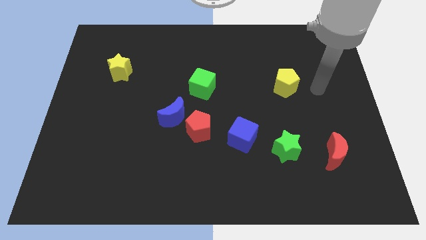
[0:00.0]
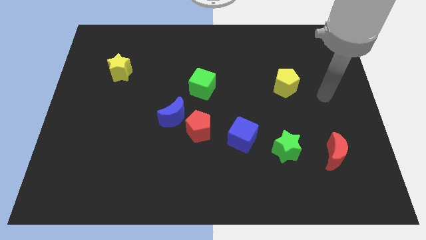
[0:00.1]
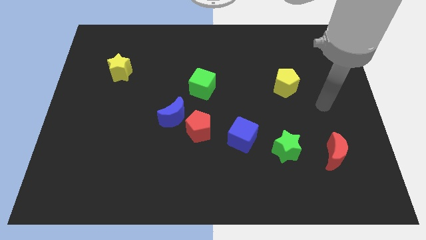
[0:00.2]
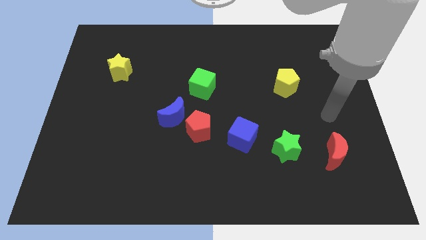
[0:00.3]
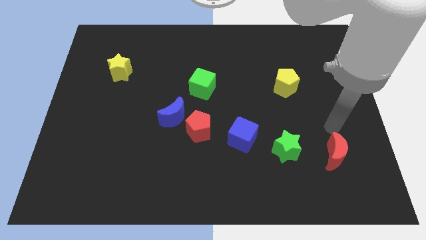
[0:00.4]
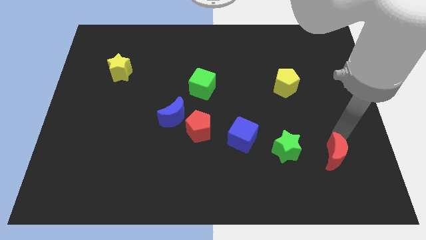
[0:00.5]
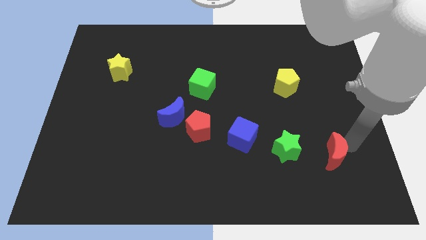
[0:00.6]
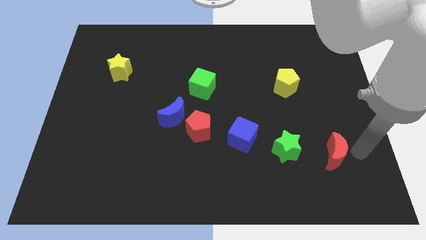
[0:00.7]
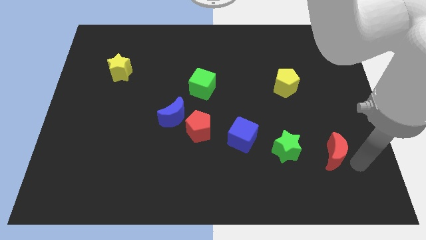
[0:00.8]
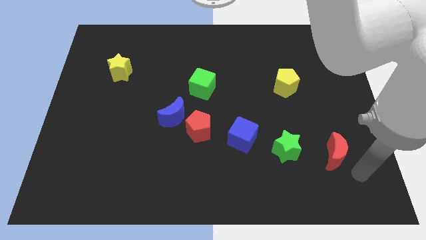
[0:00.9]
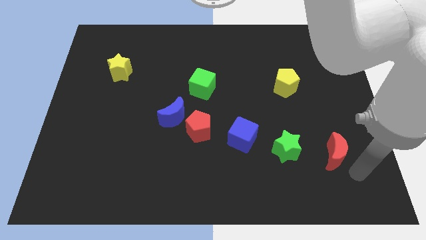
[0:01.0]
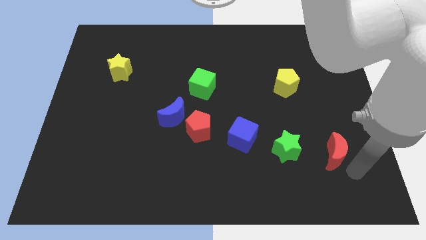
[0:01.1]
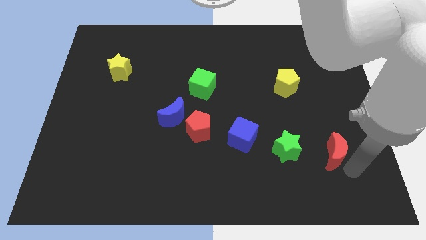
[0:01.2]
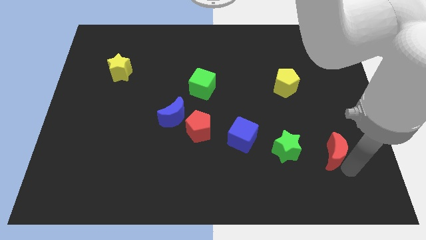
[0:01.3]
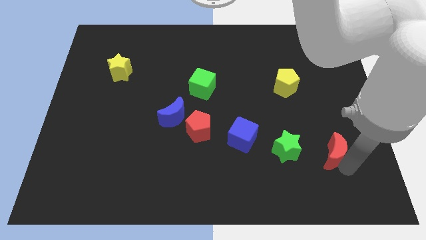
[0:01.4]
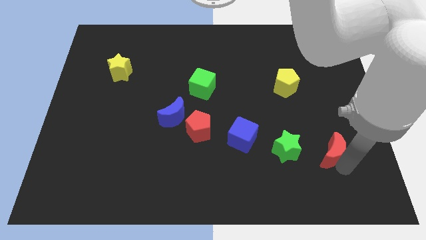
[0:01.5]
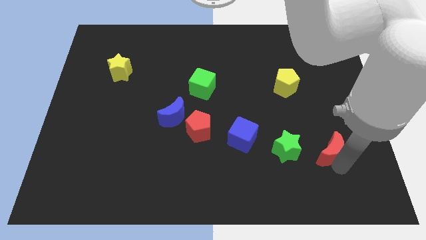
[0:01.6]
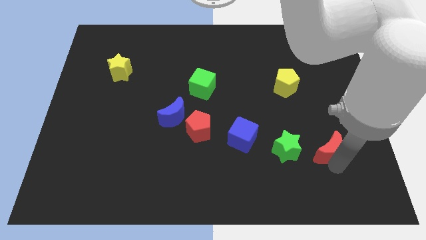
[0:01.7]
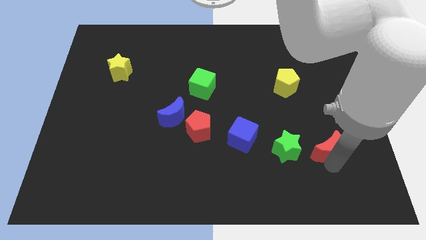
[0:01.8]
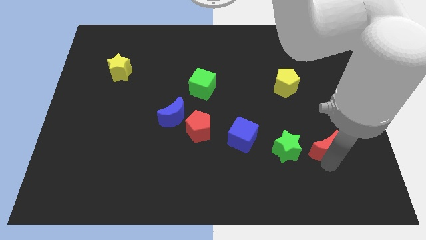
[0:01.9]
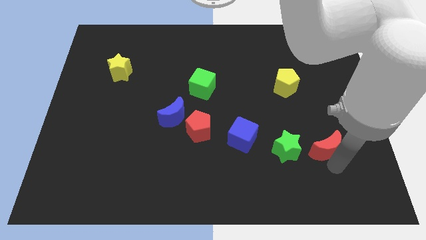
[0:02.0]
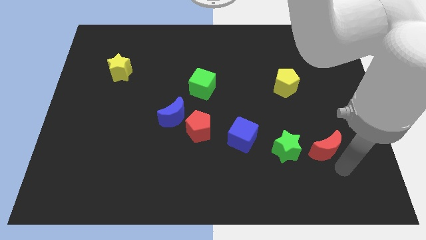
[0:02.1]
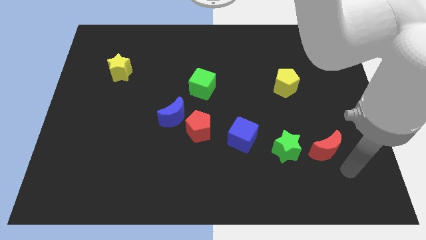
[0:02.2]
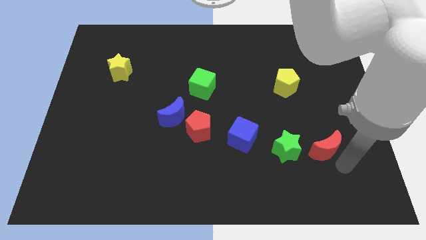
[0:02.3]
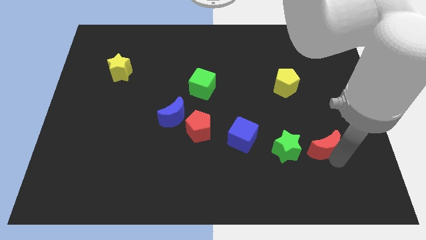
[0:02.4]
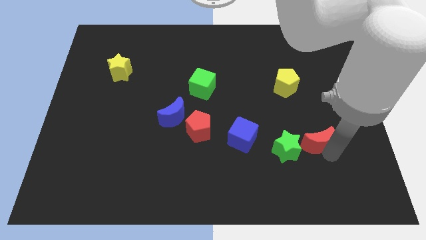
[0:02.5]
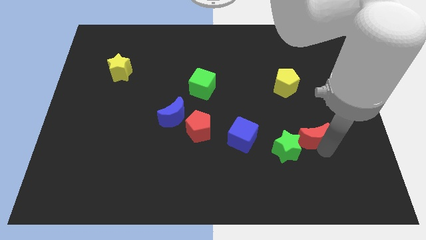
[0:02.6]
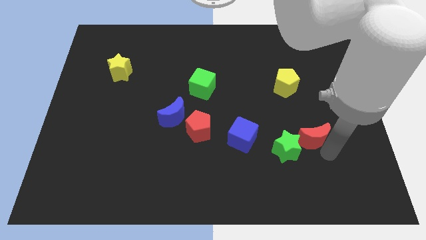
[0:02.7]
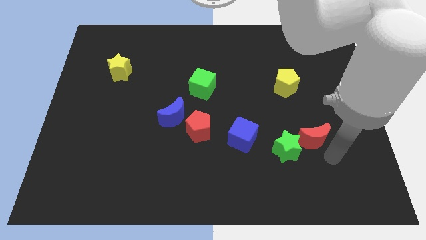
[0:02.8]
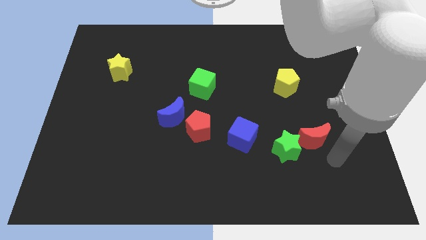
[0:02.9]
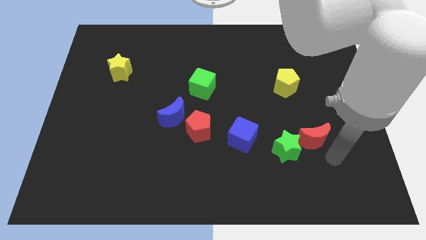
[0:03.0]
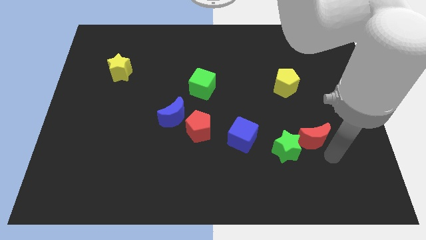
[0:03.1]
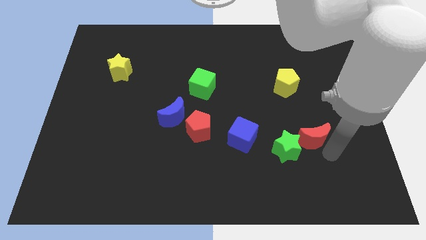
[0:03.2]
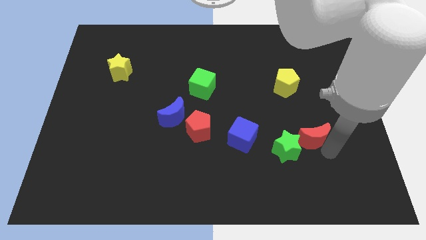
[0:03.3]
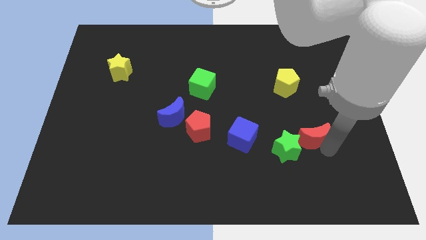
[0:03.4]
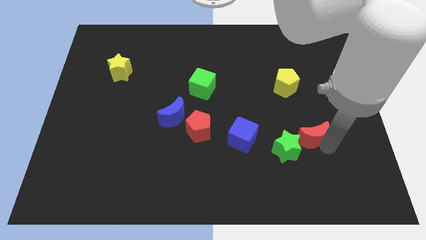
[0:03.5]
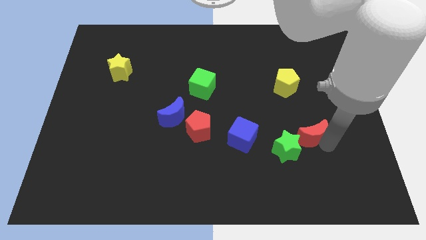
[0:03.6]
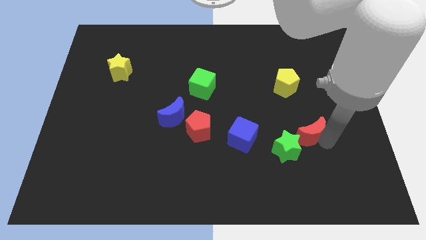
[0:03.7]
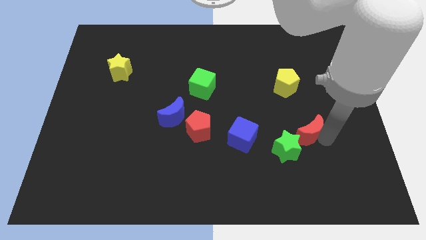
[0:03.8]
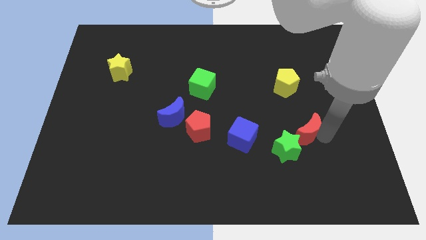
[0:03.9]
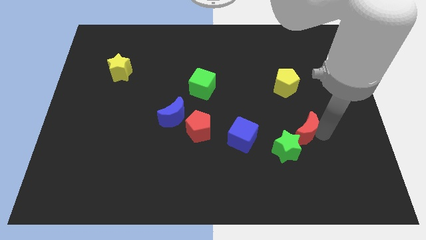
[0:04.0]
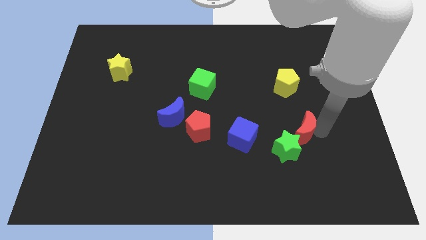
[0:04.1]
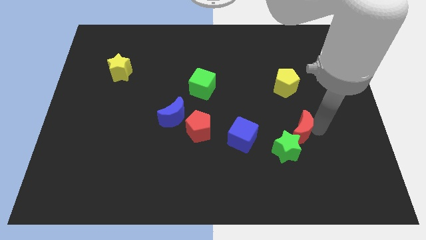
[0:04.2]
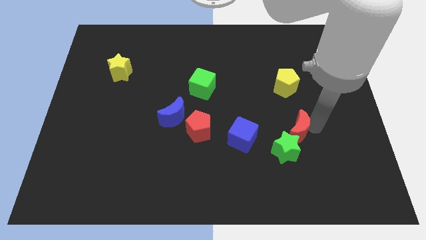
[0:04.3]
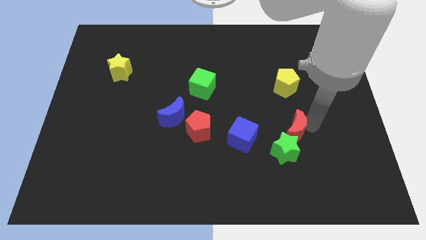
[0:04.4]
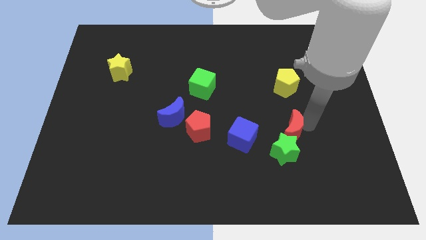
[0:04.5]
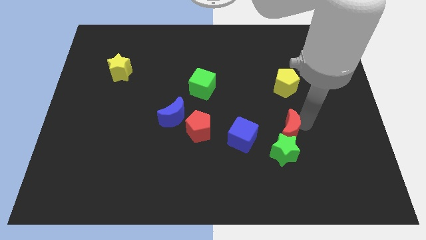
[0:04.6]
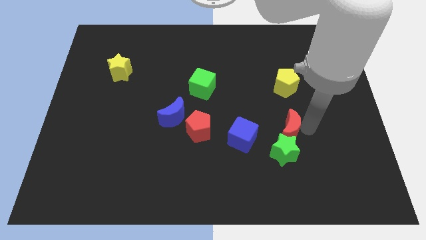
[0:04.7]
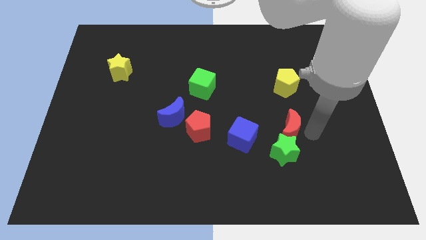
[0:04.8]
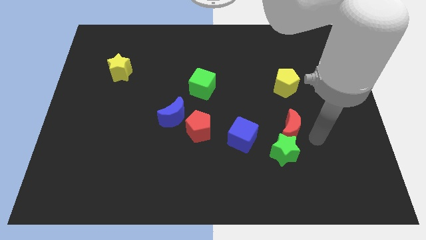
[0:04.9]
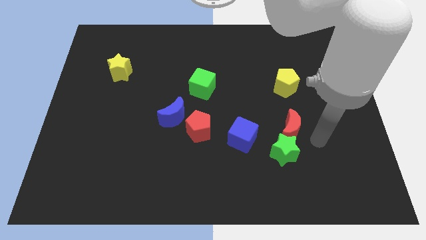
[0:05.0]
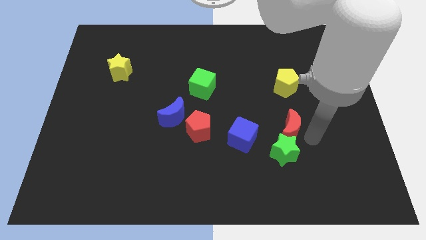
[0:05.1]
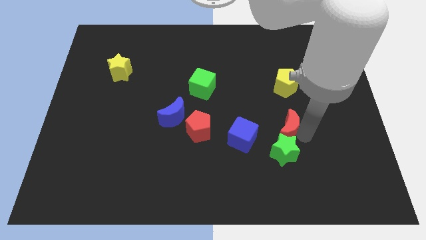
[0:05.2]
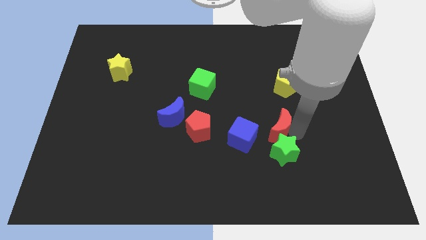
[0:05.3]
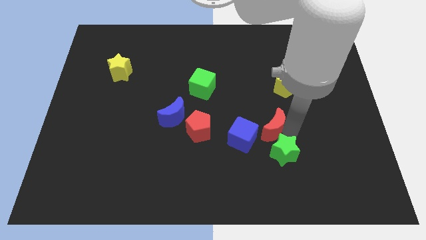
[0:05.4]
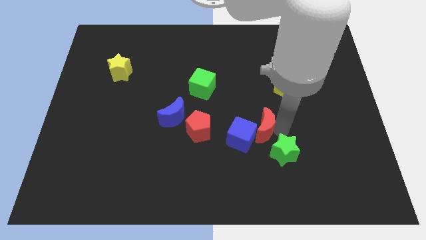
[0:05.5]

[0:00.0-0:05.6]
slide the red moon right of the red pentagon

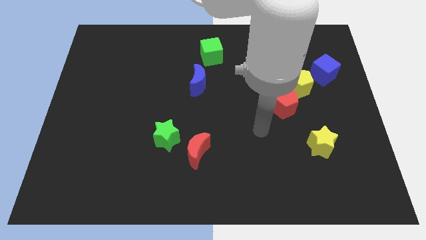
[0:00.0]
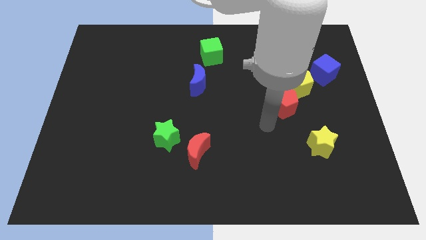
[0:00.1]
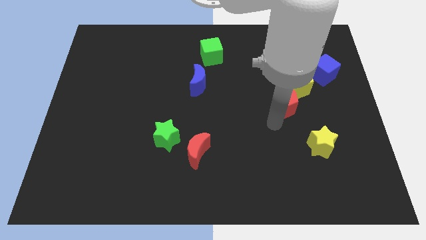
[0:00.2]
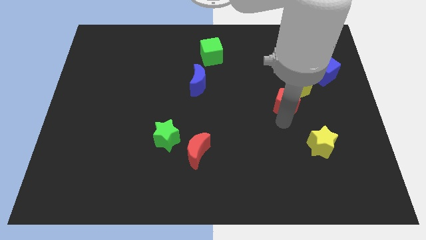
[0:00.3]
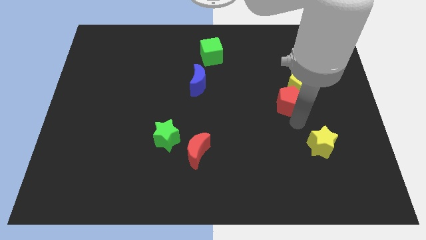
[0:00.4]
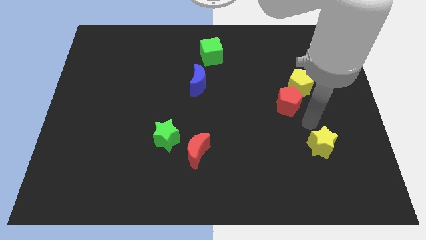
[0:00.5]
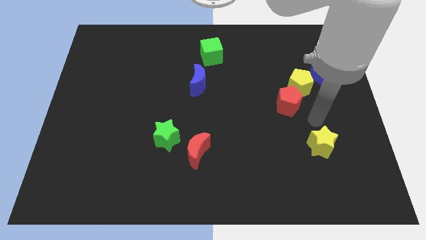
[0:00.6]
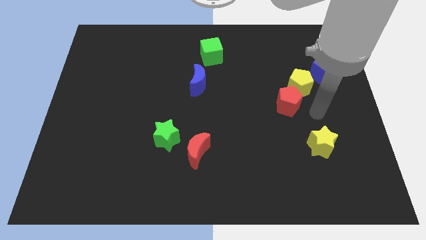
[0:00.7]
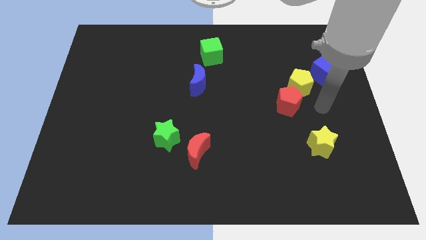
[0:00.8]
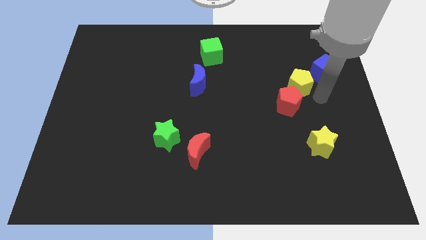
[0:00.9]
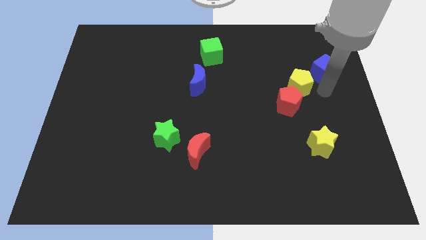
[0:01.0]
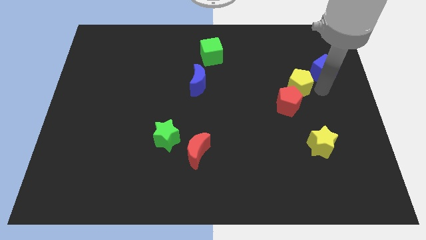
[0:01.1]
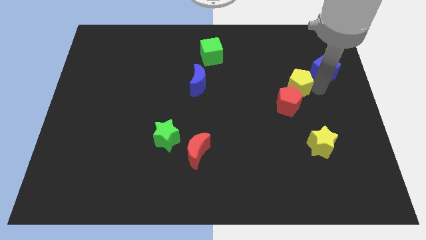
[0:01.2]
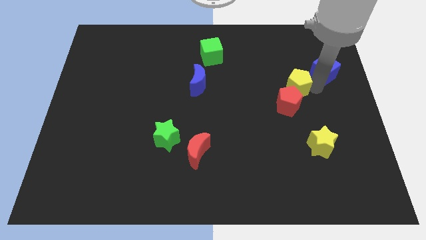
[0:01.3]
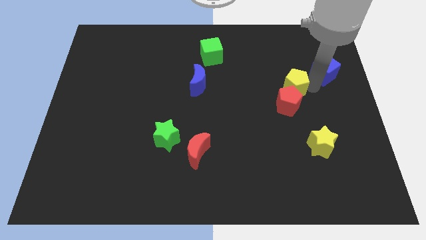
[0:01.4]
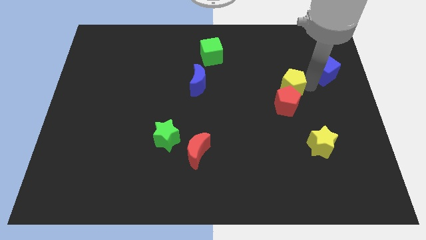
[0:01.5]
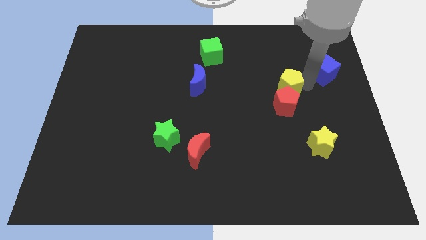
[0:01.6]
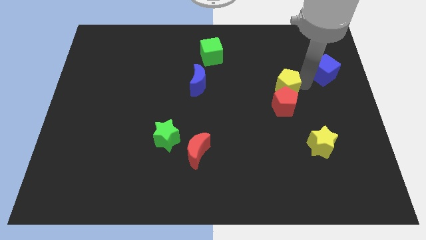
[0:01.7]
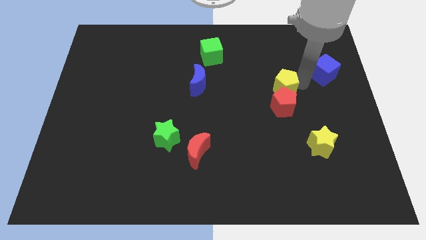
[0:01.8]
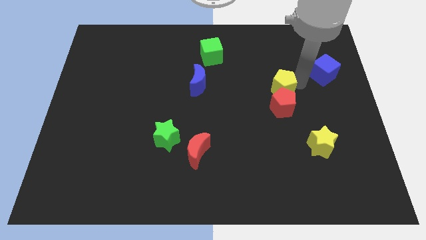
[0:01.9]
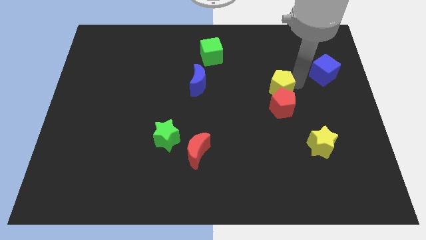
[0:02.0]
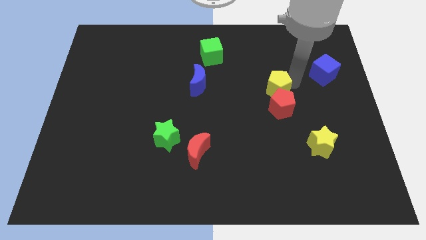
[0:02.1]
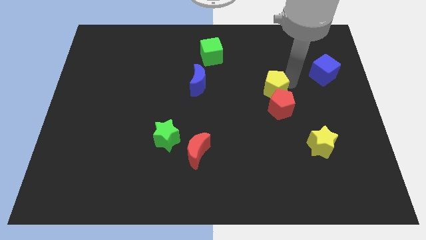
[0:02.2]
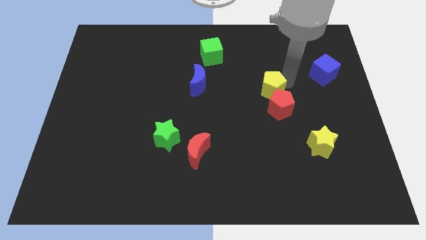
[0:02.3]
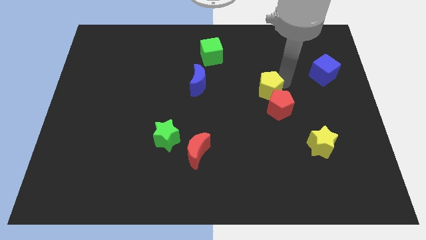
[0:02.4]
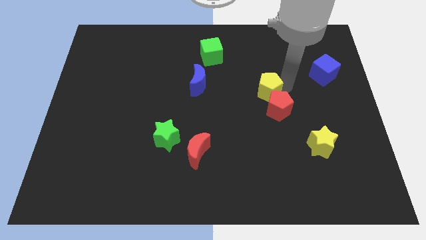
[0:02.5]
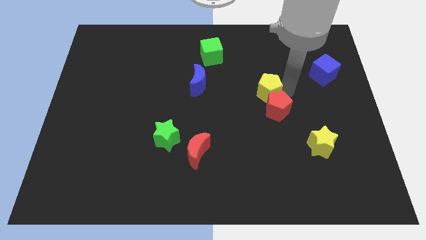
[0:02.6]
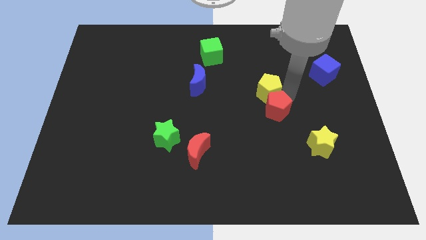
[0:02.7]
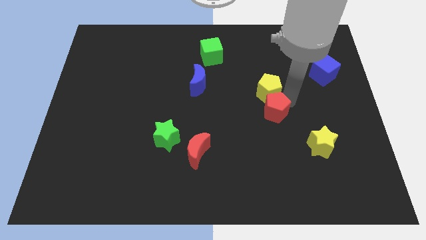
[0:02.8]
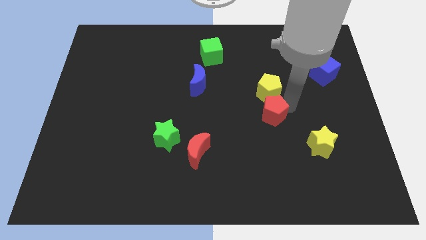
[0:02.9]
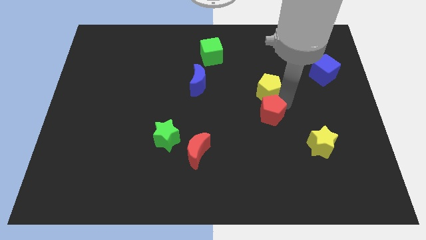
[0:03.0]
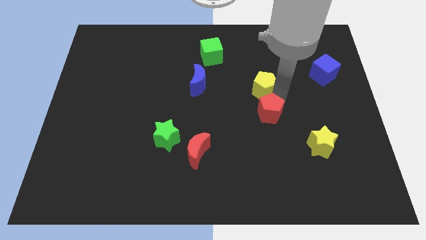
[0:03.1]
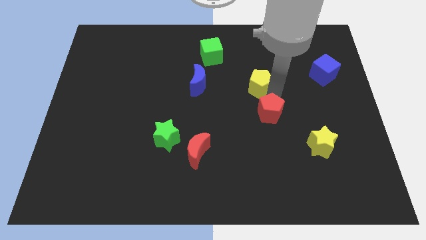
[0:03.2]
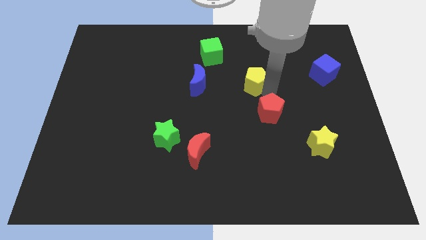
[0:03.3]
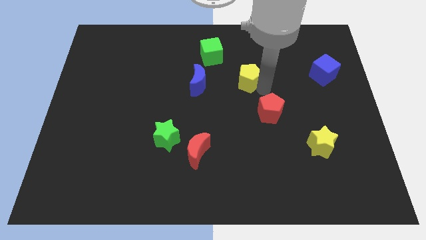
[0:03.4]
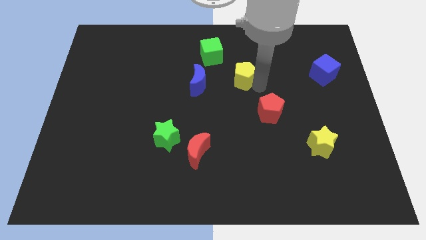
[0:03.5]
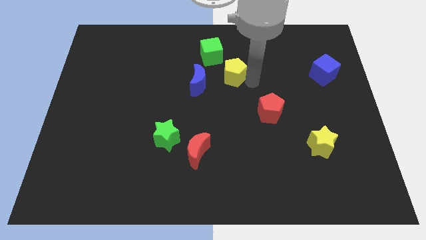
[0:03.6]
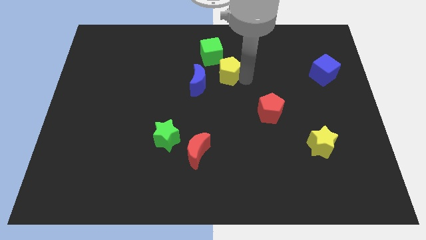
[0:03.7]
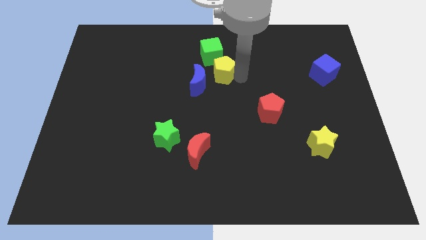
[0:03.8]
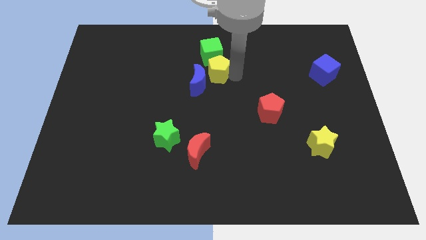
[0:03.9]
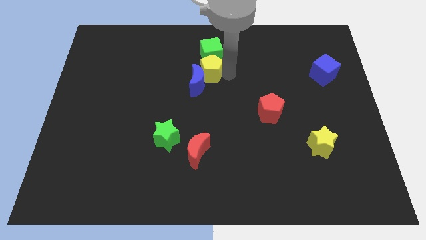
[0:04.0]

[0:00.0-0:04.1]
put the yellow pentagon diagonally down and to the left of the green cube
